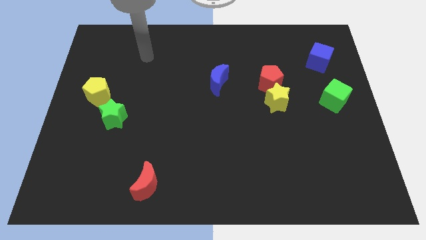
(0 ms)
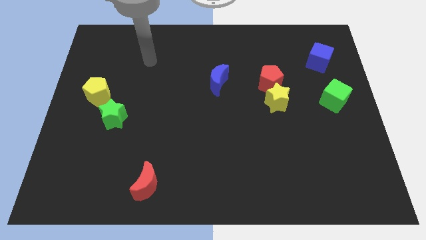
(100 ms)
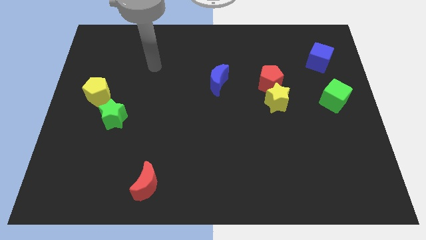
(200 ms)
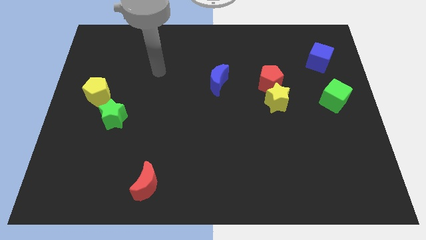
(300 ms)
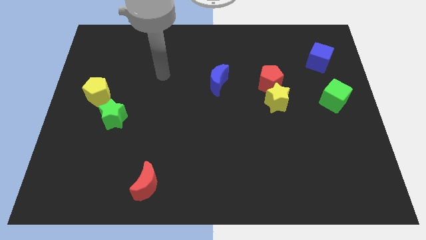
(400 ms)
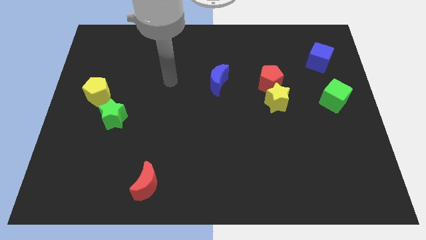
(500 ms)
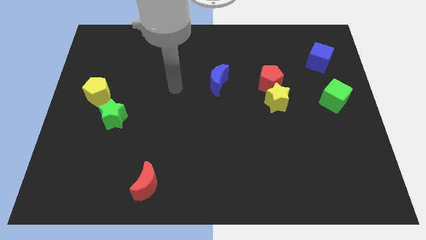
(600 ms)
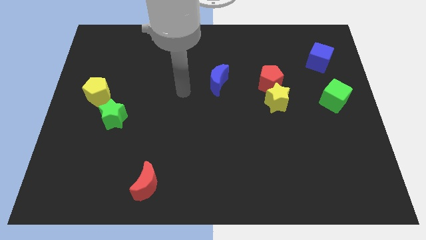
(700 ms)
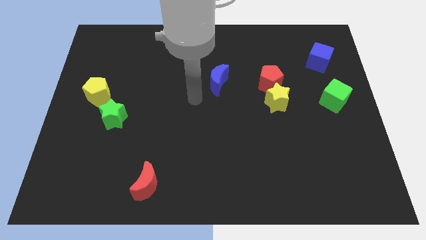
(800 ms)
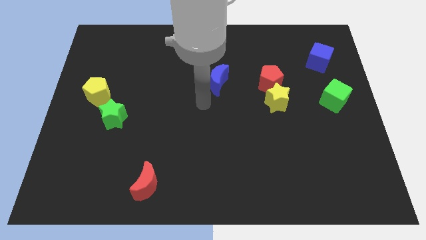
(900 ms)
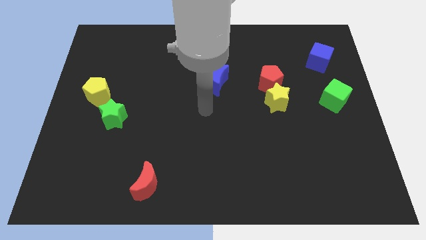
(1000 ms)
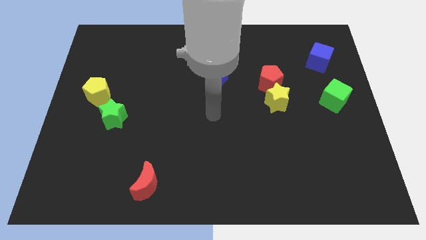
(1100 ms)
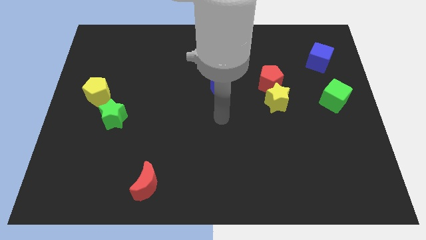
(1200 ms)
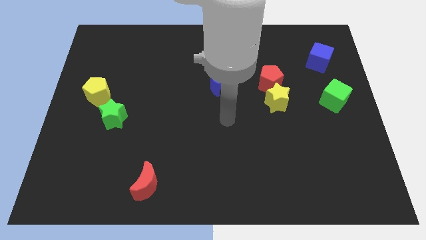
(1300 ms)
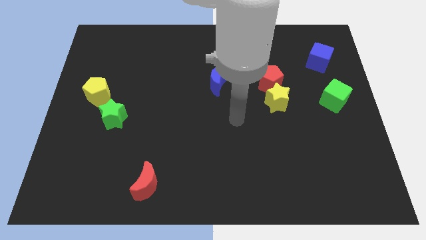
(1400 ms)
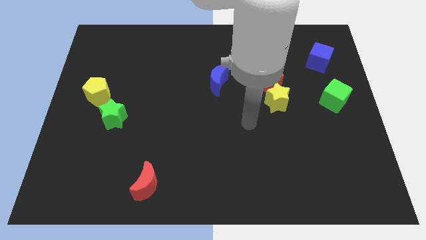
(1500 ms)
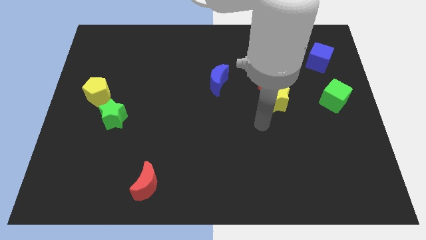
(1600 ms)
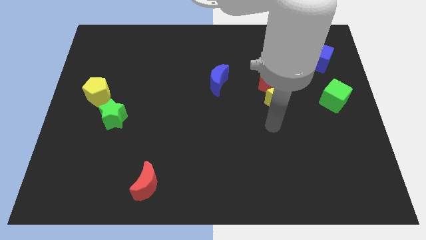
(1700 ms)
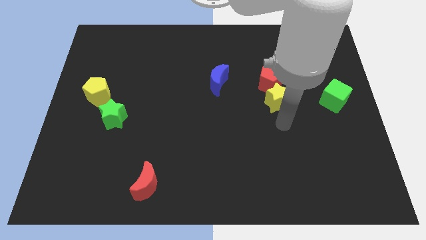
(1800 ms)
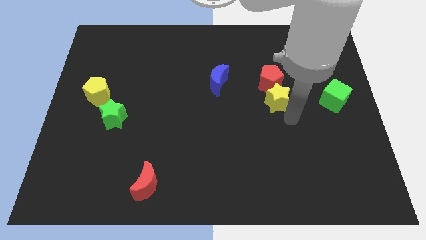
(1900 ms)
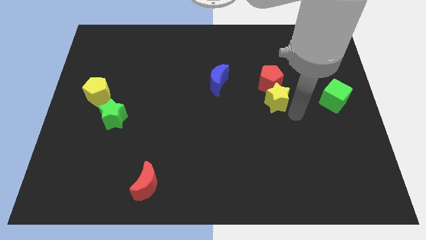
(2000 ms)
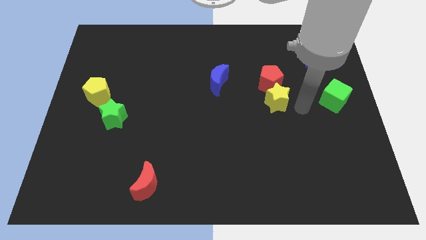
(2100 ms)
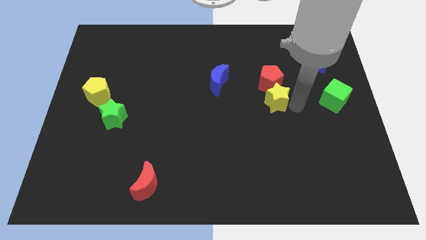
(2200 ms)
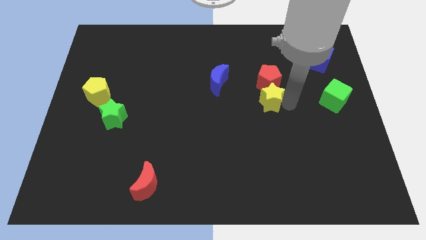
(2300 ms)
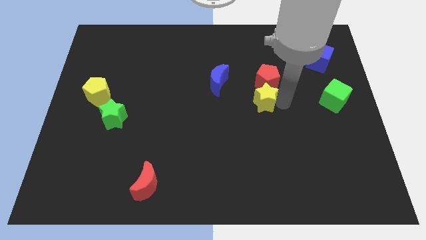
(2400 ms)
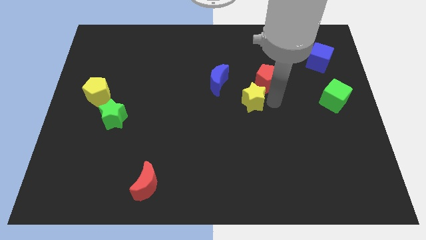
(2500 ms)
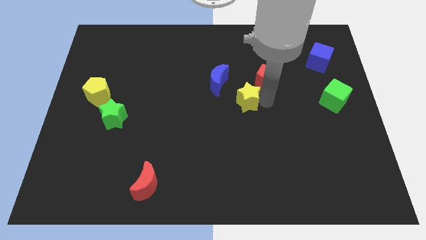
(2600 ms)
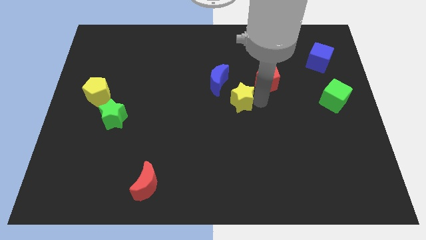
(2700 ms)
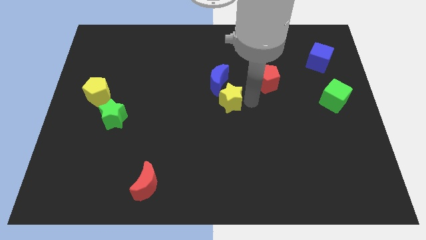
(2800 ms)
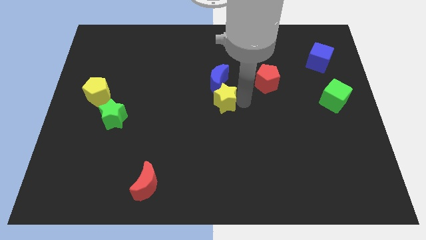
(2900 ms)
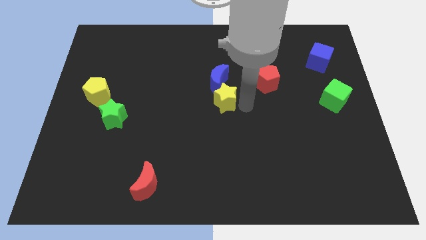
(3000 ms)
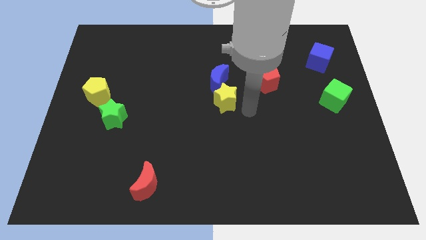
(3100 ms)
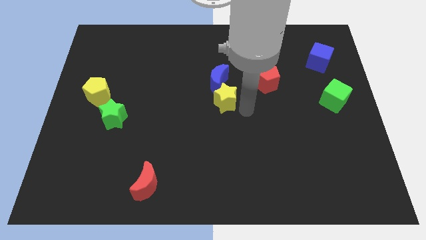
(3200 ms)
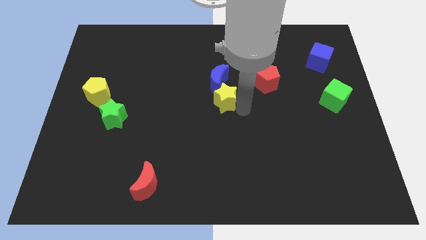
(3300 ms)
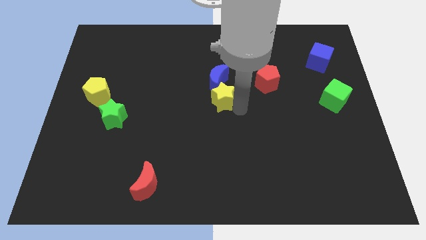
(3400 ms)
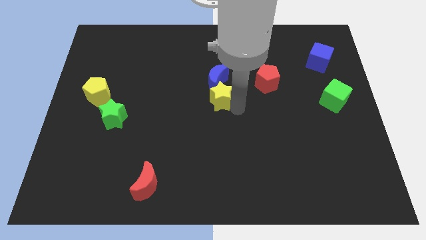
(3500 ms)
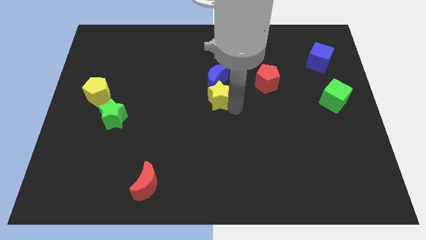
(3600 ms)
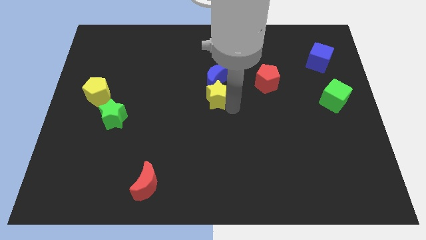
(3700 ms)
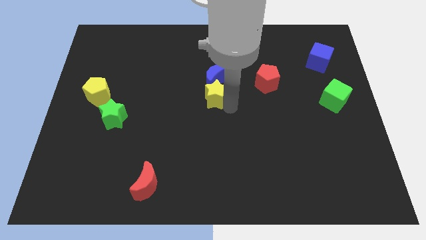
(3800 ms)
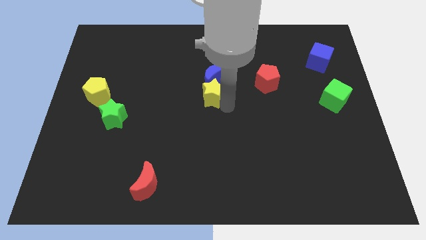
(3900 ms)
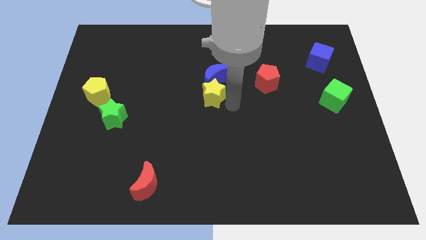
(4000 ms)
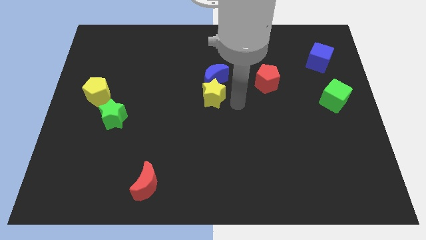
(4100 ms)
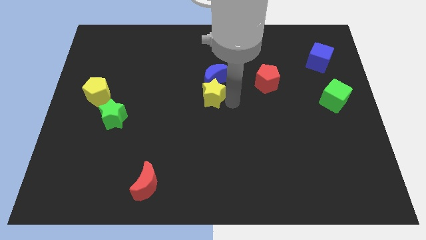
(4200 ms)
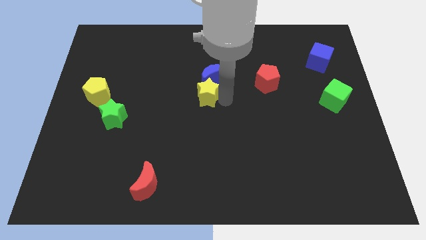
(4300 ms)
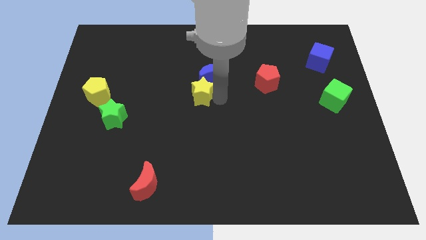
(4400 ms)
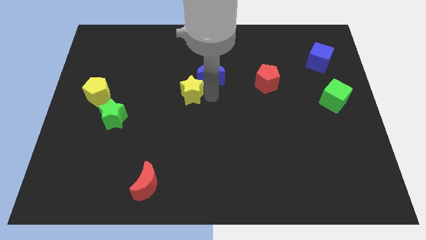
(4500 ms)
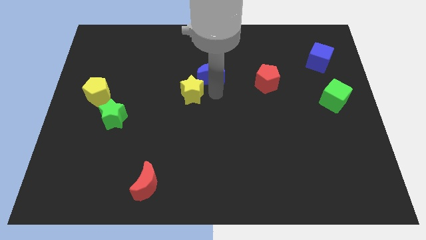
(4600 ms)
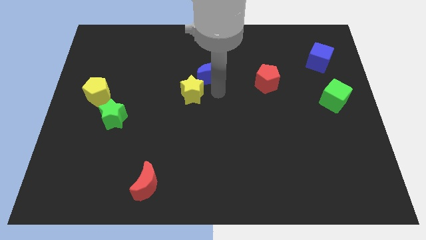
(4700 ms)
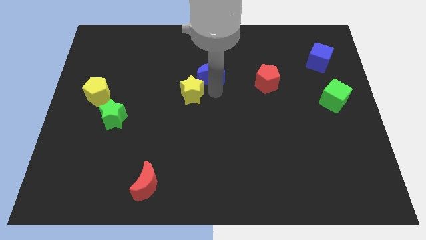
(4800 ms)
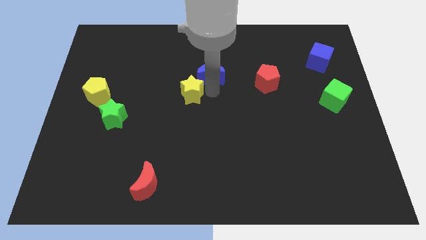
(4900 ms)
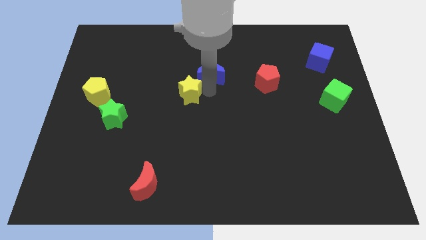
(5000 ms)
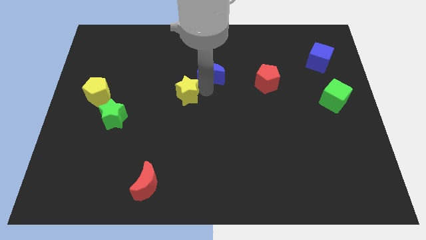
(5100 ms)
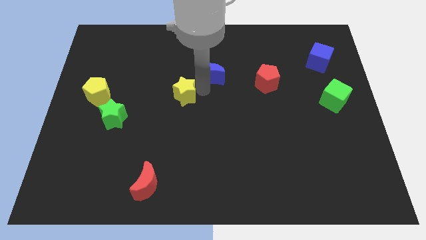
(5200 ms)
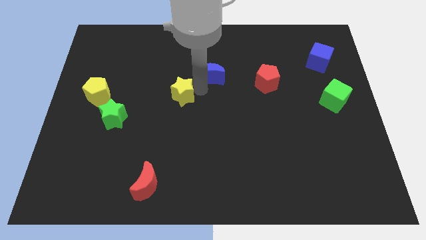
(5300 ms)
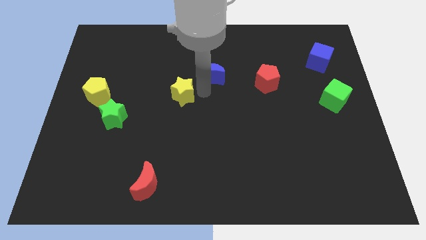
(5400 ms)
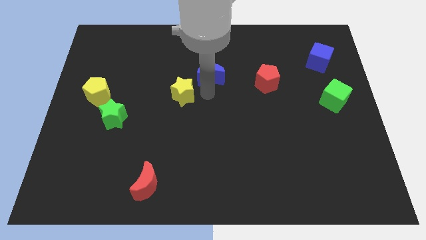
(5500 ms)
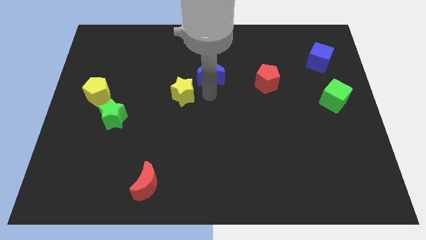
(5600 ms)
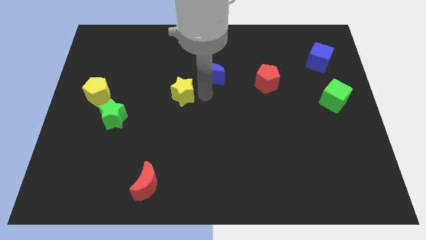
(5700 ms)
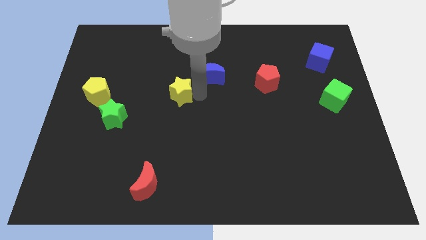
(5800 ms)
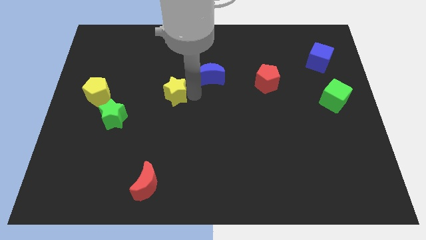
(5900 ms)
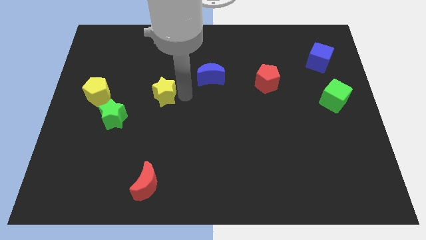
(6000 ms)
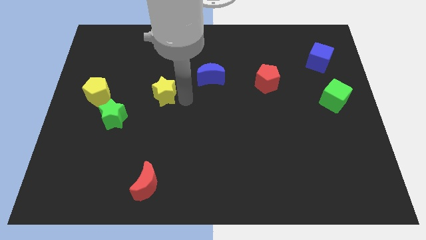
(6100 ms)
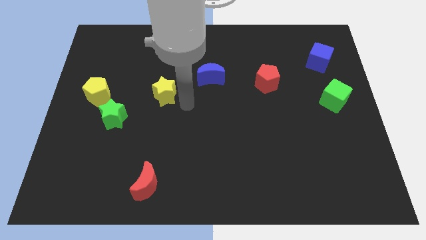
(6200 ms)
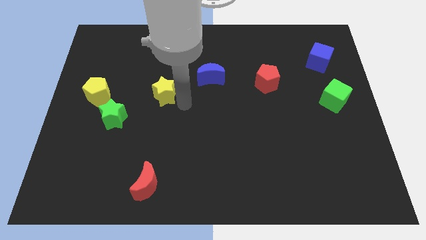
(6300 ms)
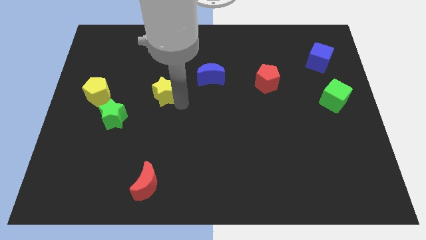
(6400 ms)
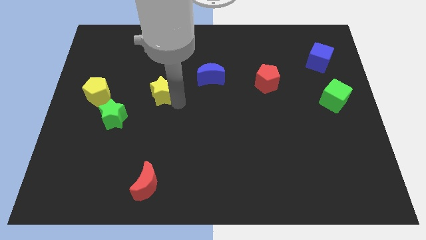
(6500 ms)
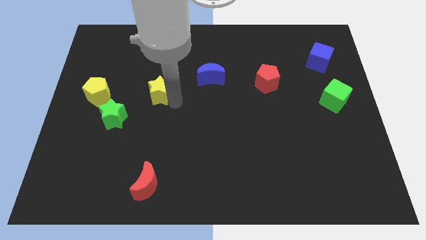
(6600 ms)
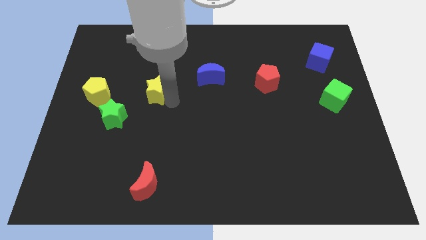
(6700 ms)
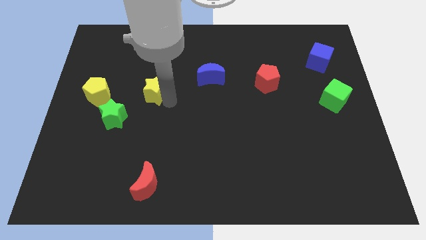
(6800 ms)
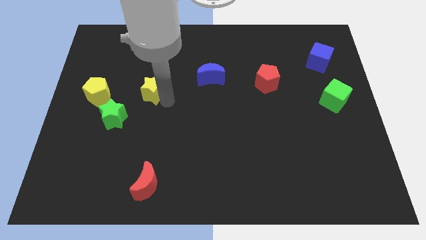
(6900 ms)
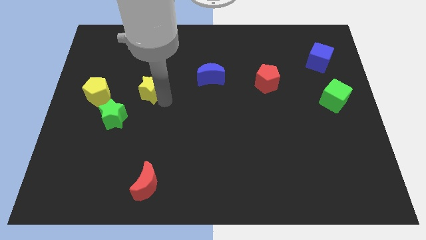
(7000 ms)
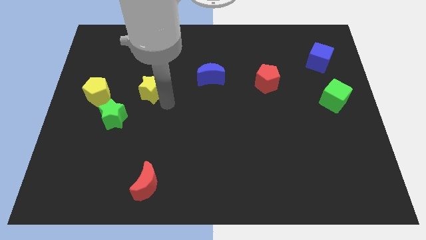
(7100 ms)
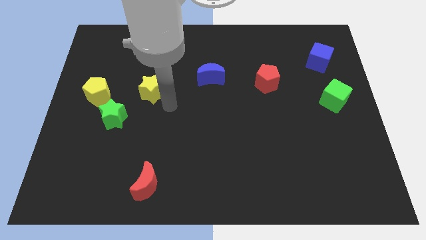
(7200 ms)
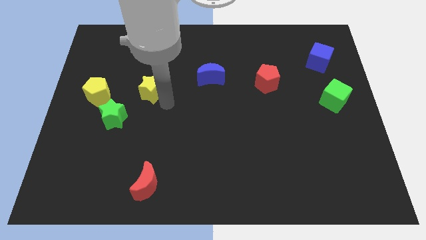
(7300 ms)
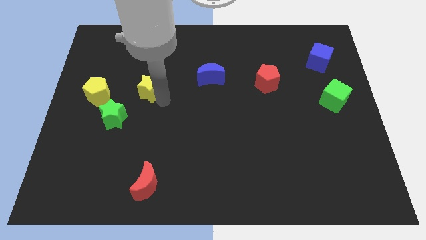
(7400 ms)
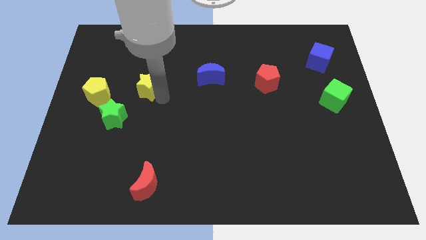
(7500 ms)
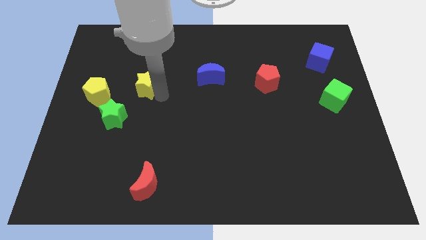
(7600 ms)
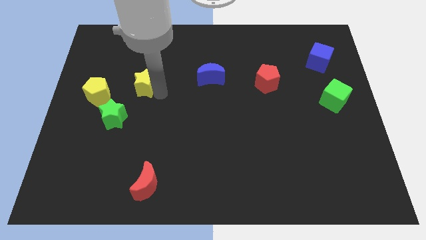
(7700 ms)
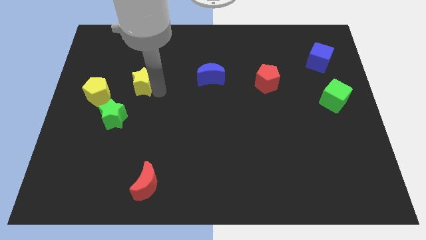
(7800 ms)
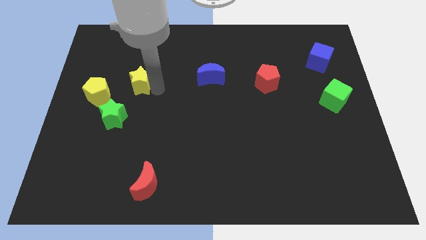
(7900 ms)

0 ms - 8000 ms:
move the yellow star to the top side of the green star
